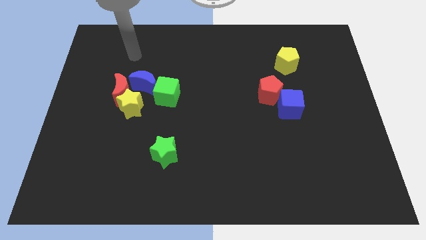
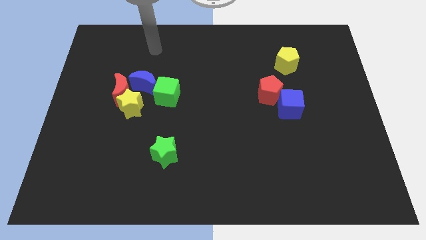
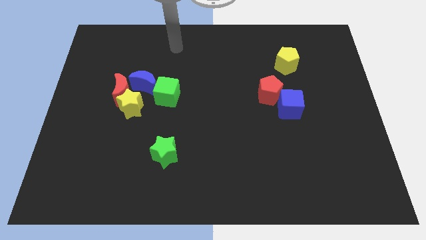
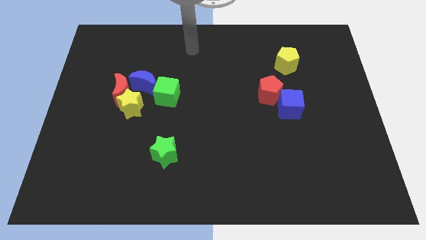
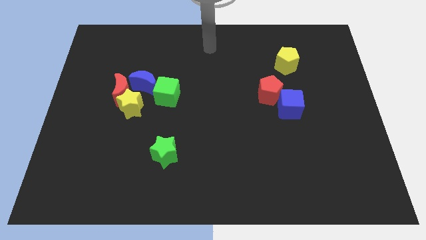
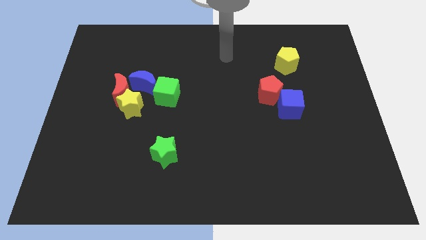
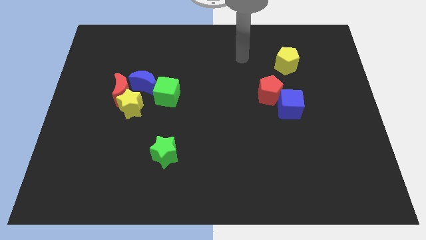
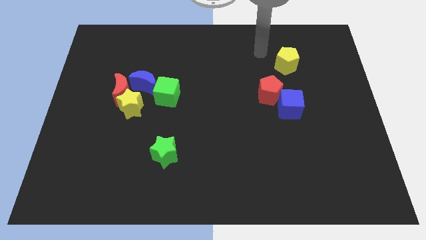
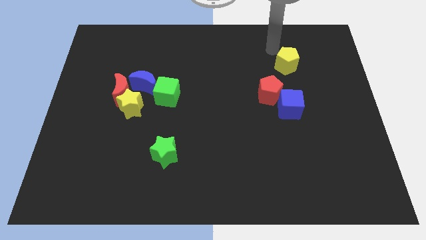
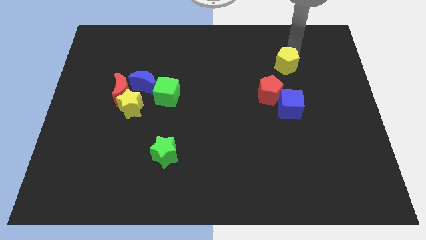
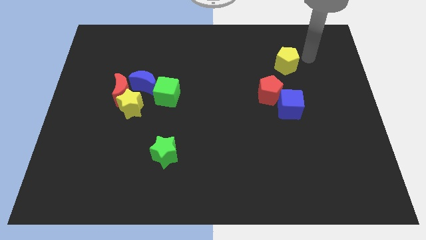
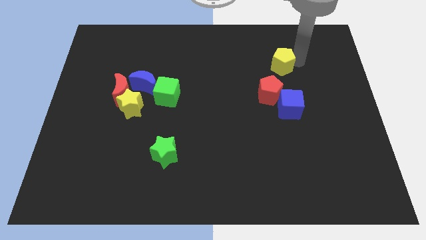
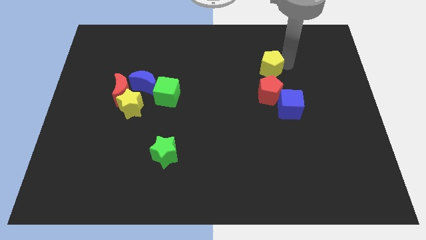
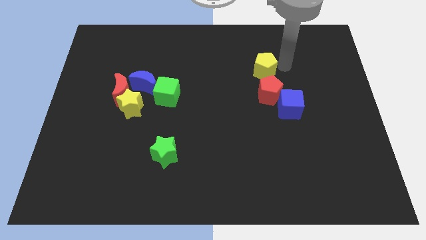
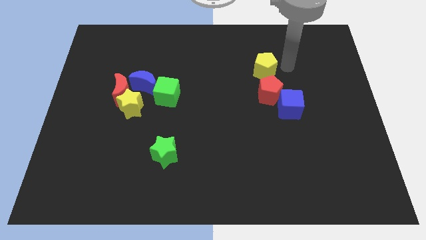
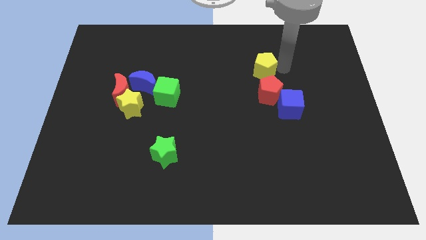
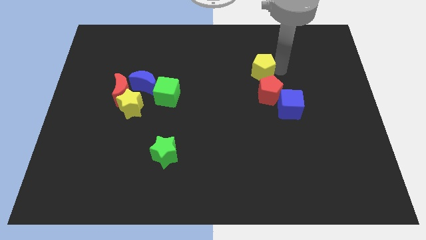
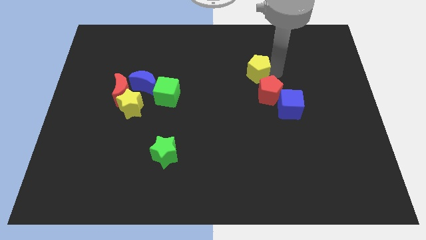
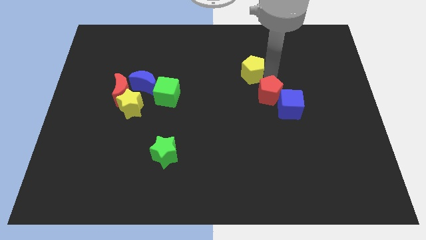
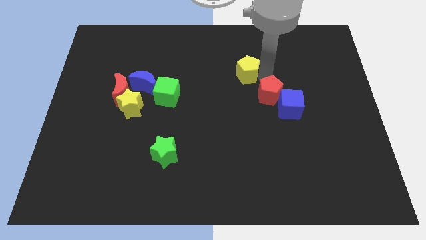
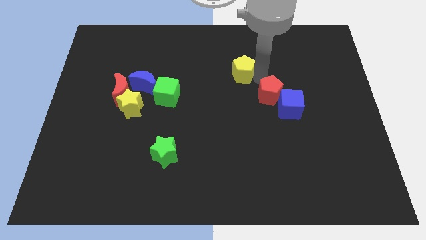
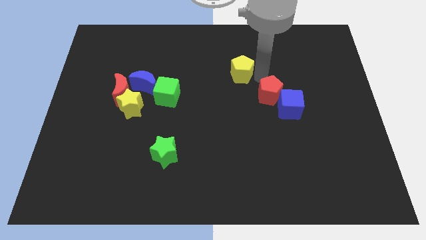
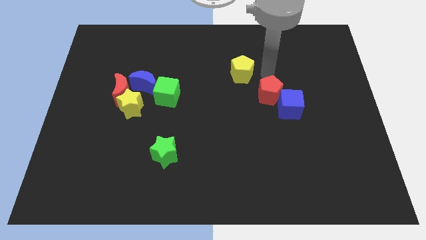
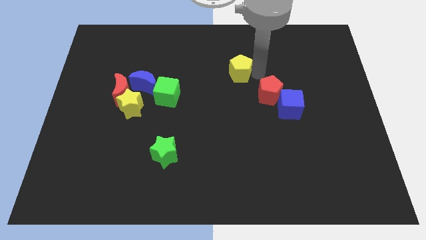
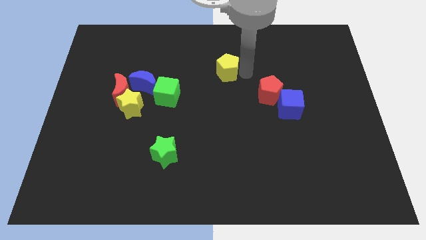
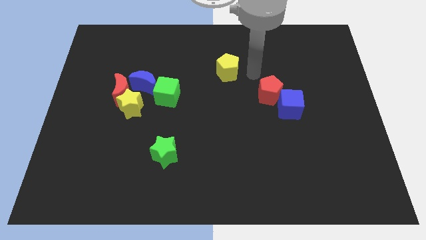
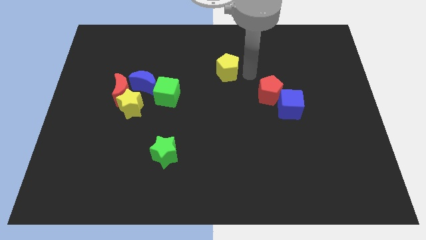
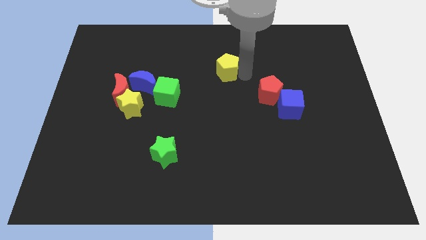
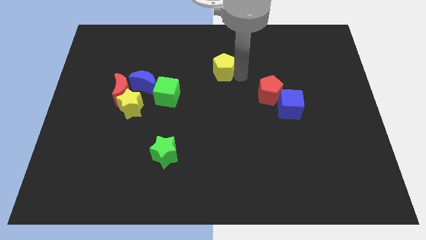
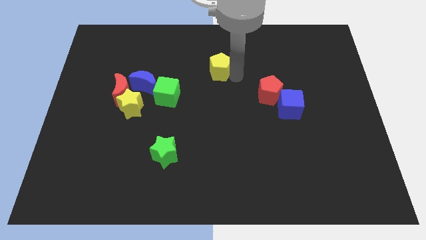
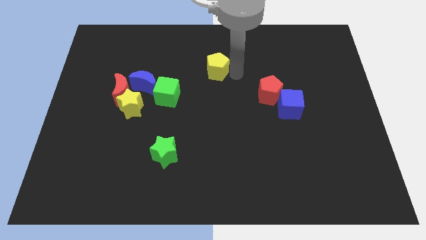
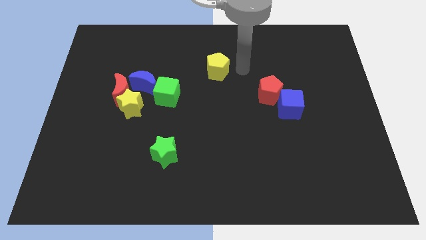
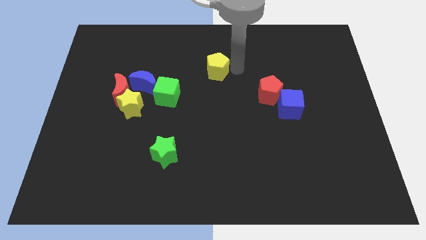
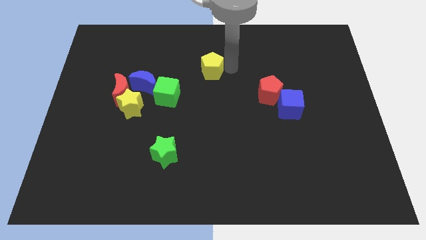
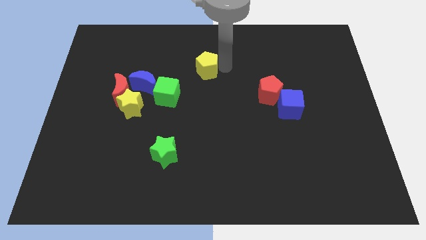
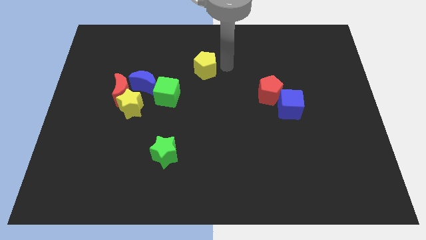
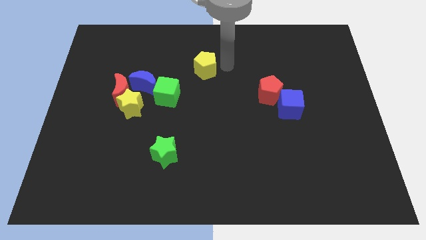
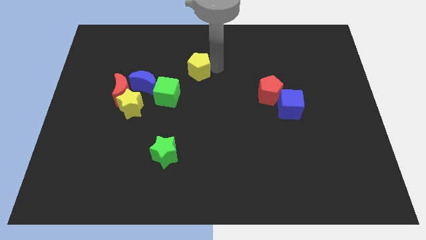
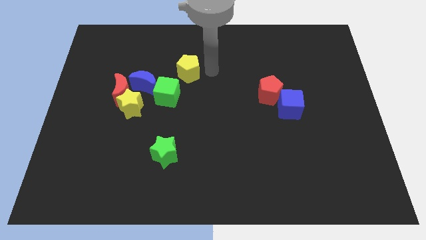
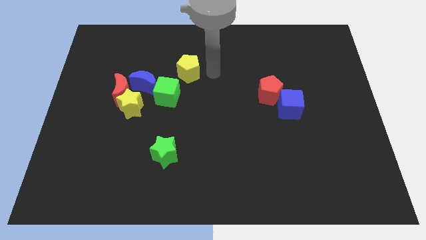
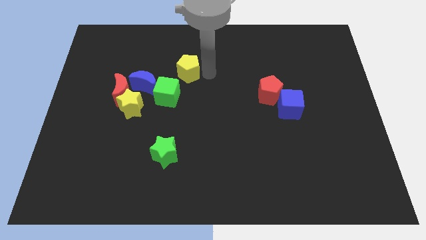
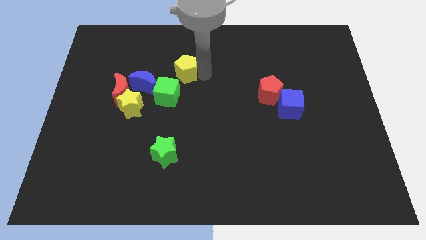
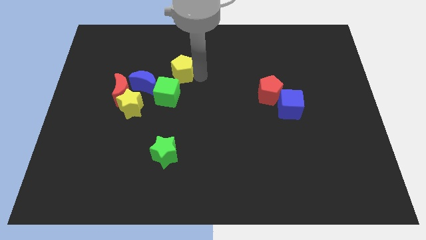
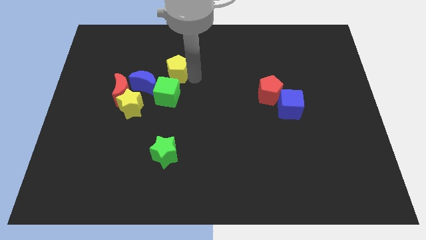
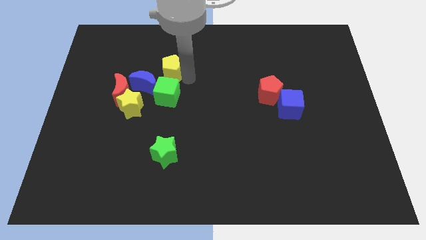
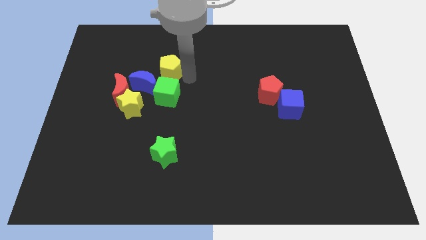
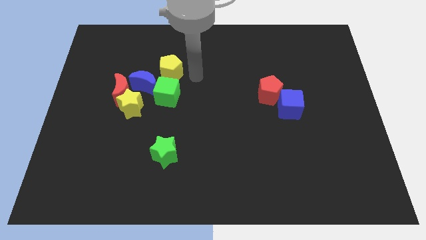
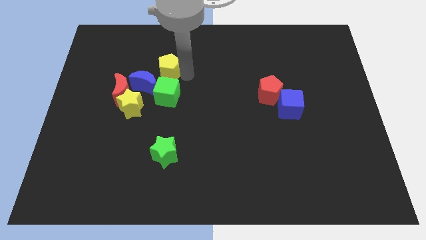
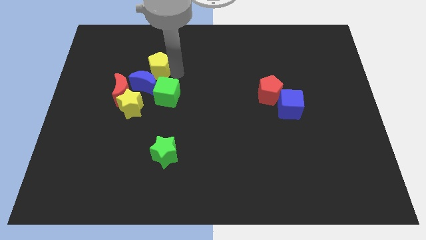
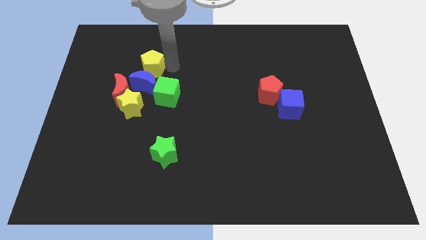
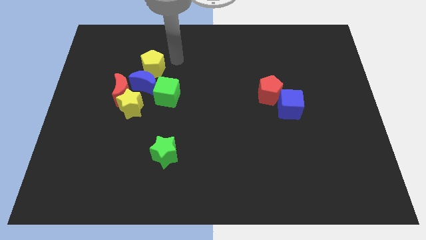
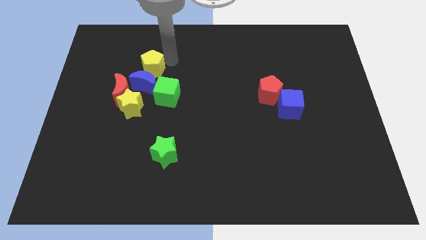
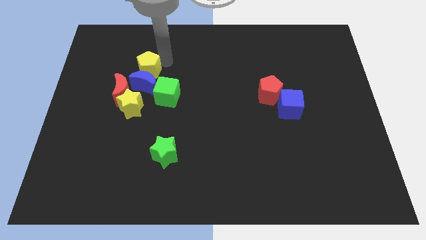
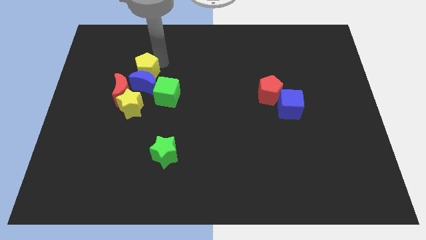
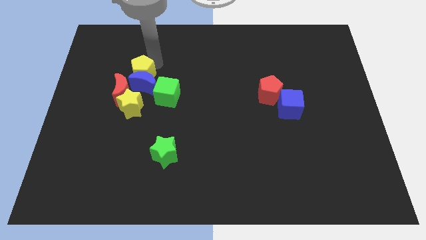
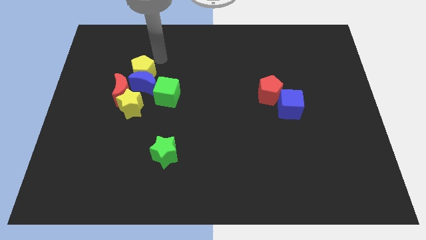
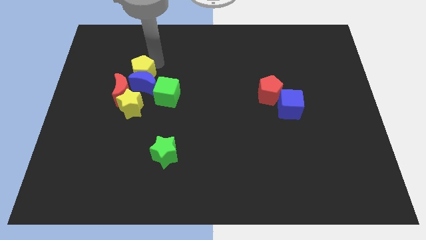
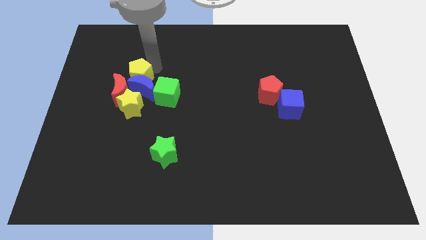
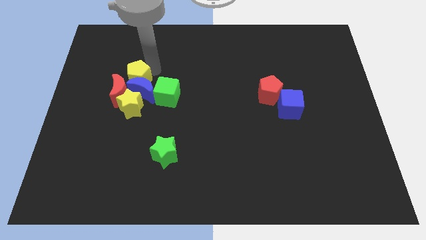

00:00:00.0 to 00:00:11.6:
put the yellow pentagon towards the red moon

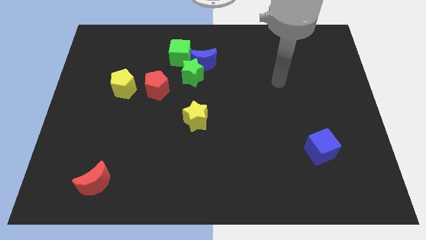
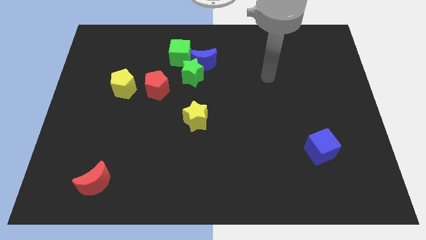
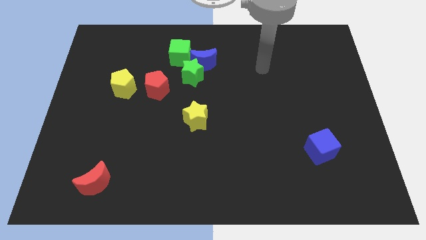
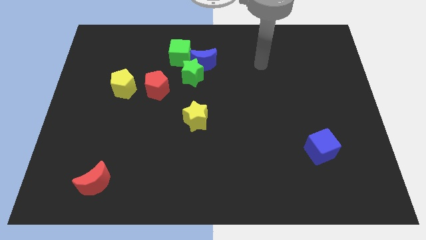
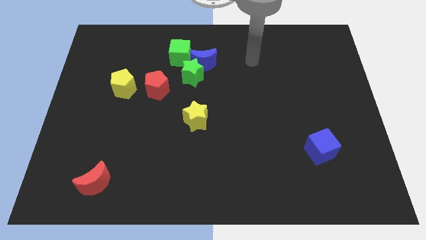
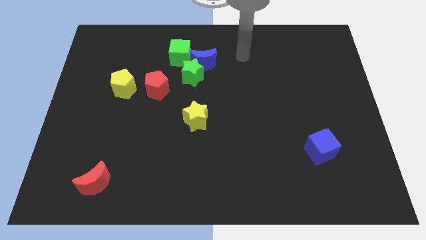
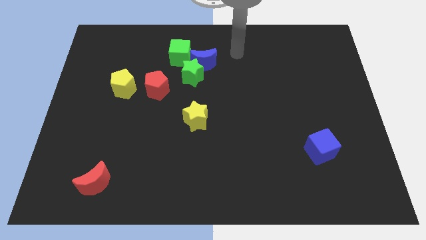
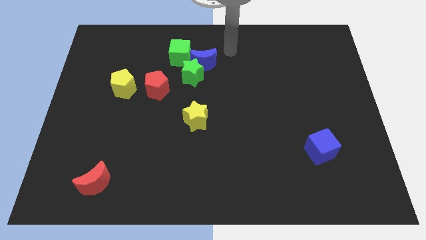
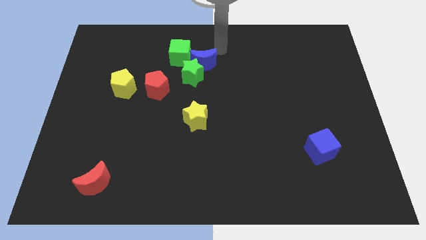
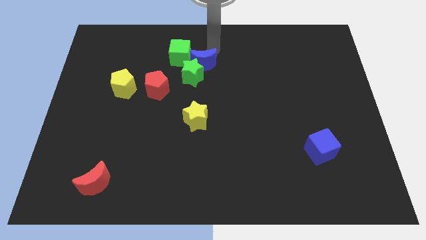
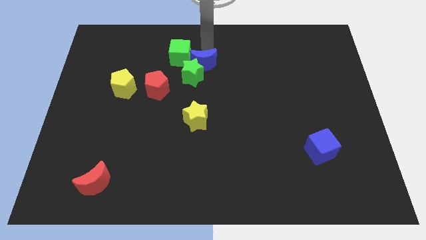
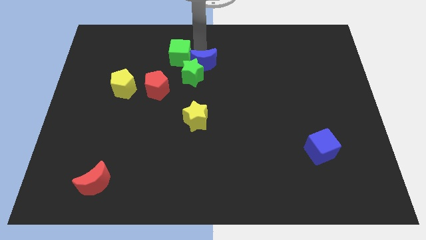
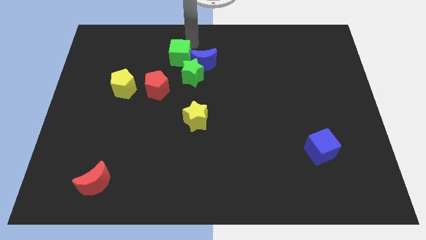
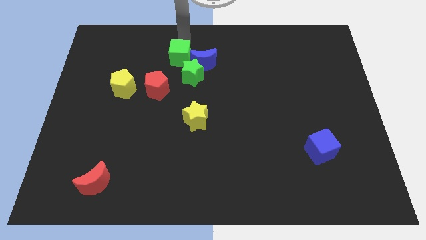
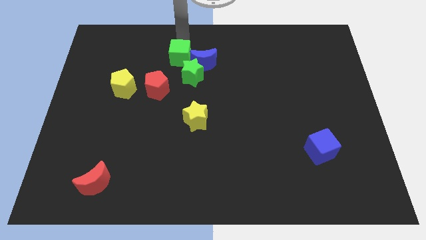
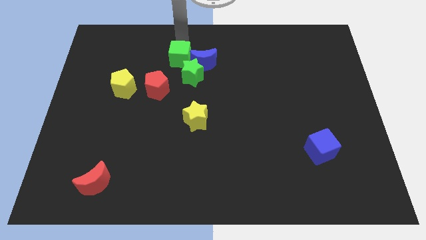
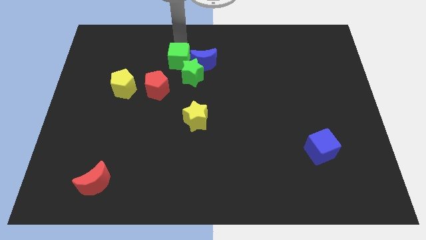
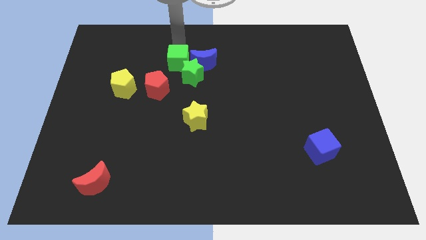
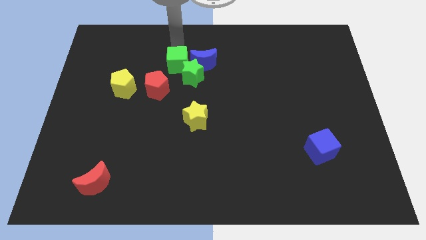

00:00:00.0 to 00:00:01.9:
move the green cube to the green star

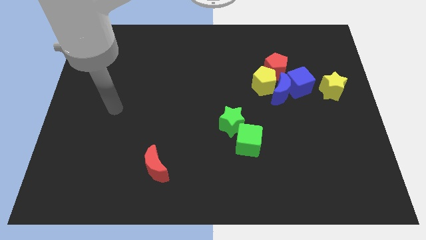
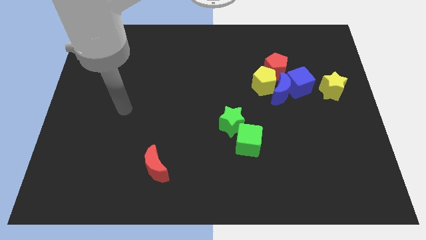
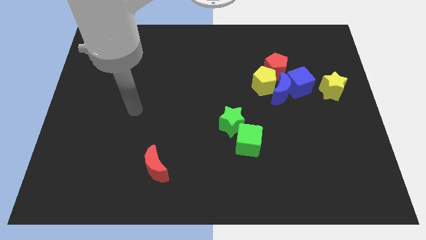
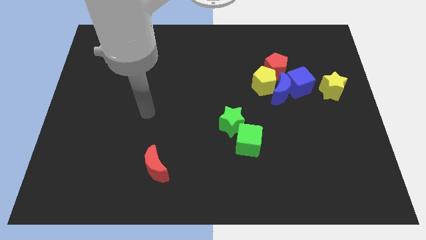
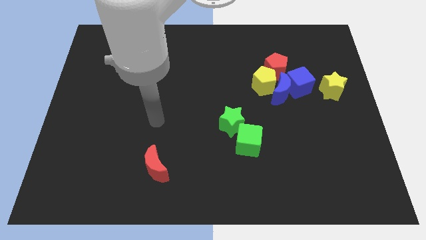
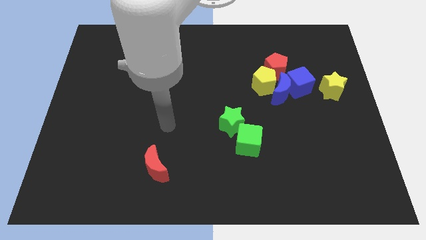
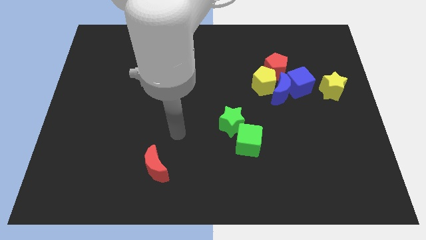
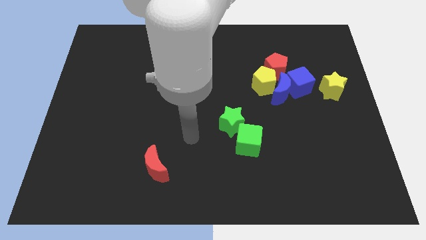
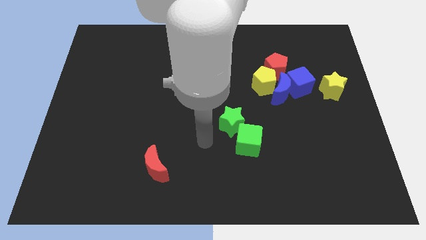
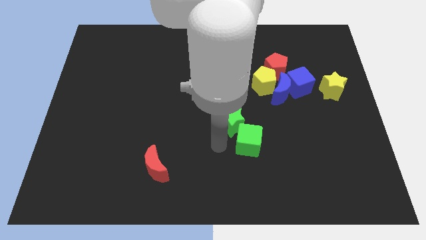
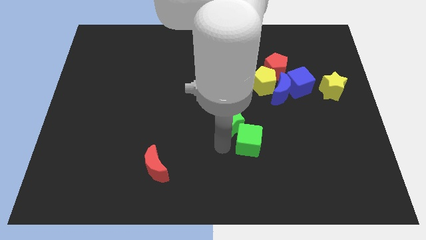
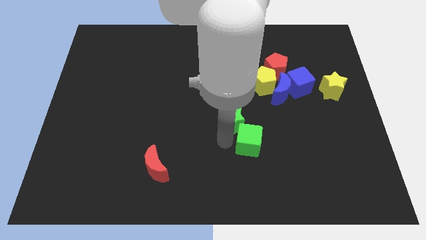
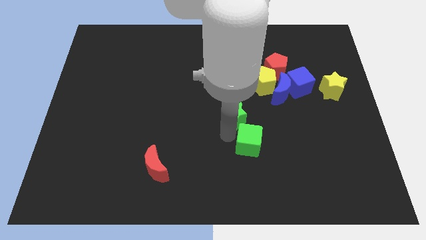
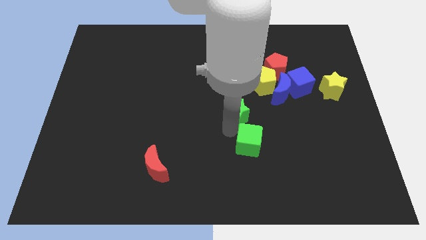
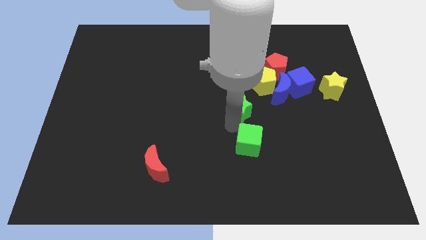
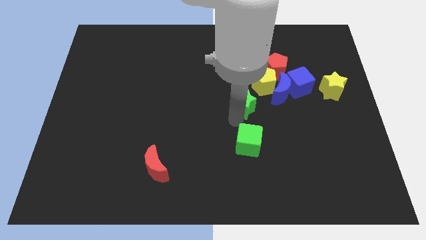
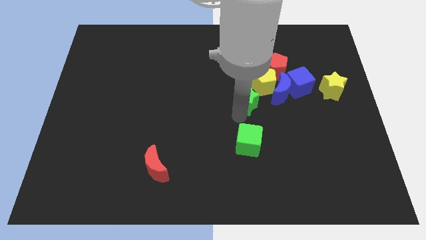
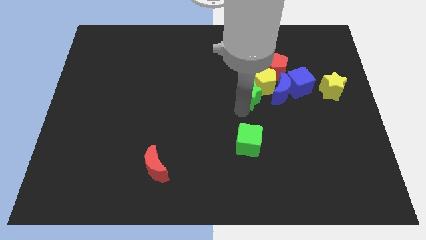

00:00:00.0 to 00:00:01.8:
move the green star to the yellow pentagon
